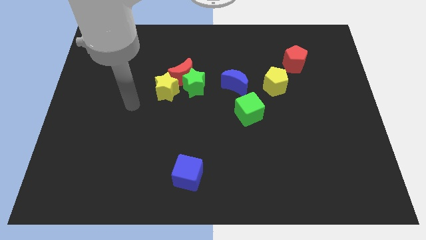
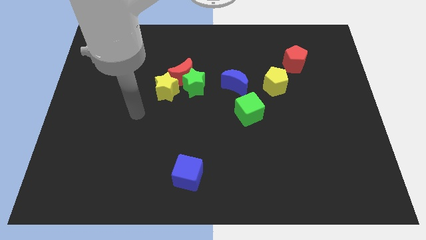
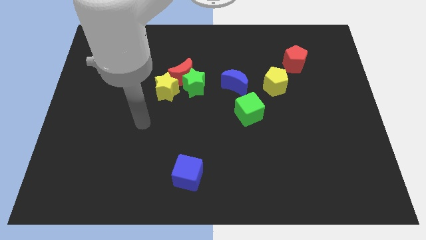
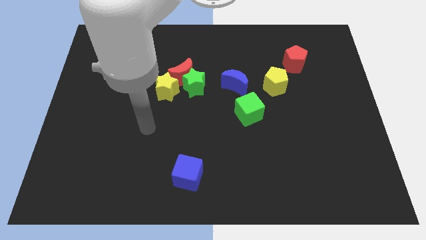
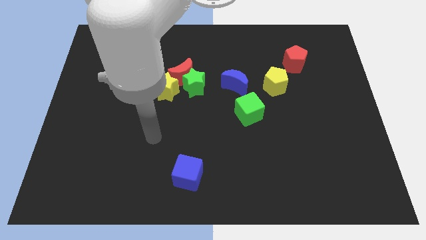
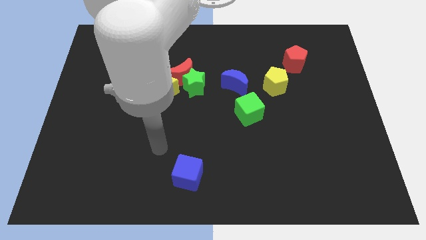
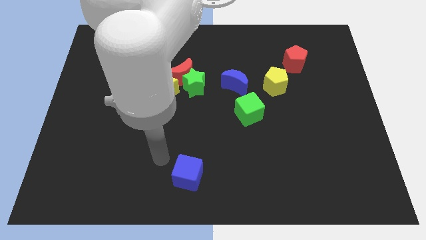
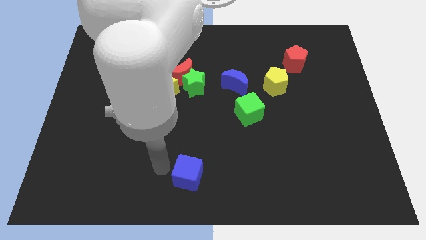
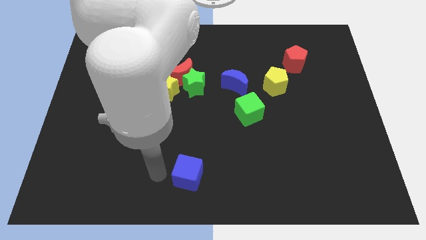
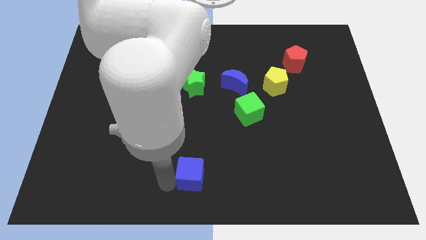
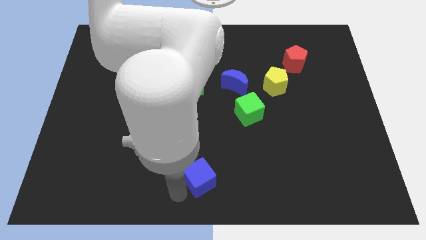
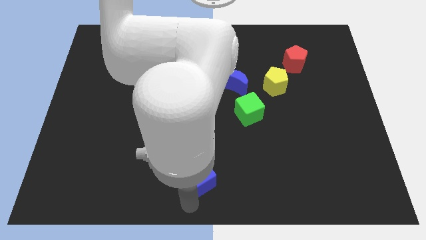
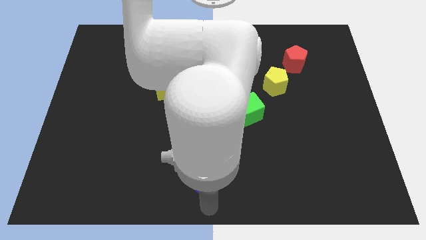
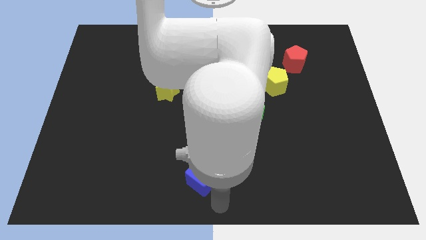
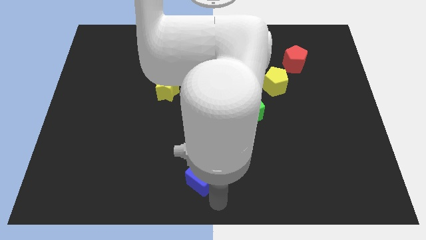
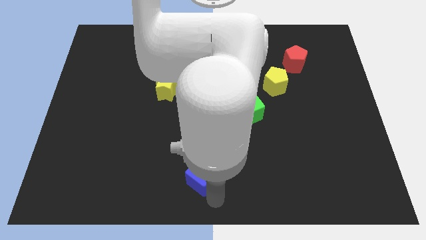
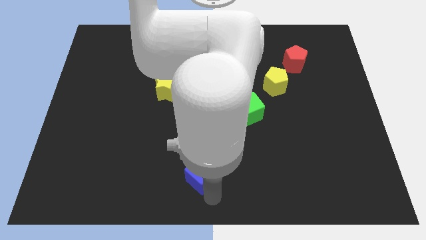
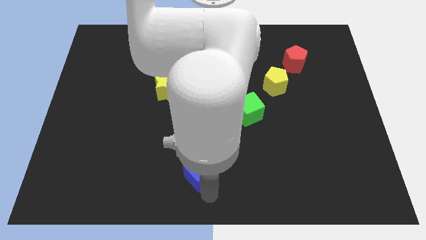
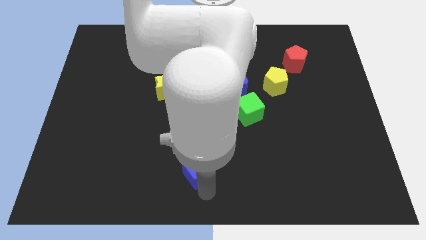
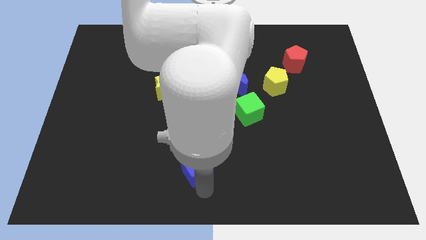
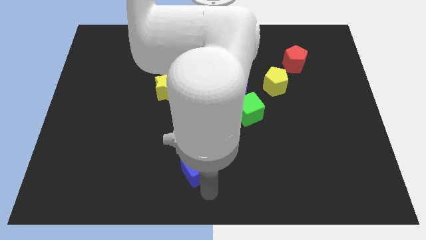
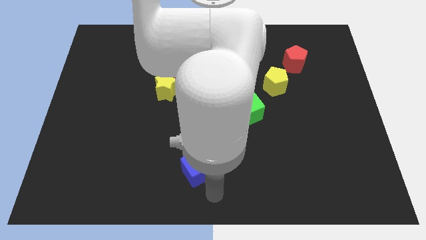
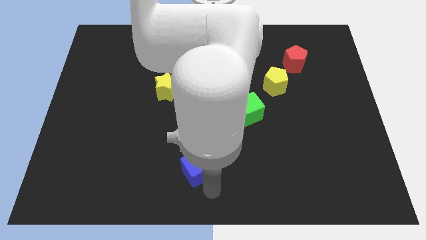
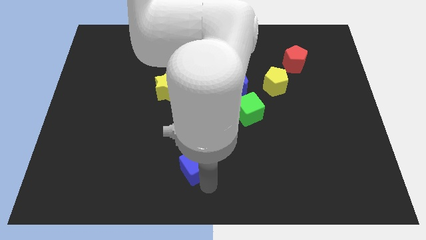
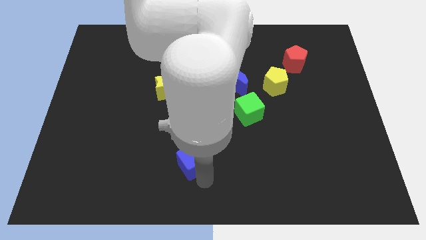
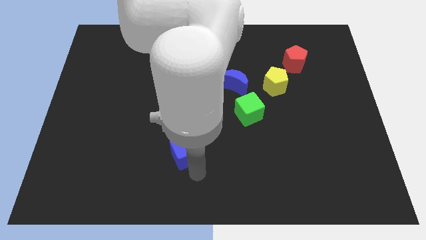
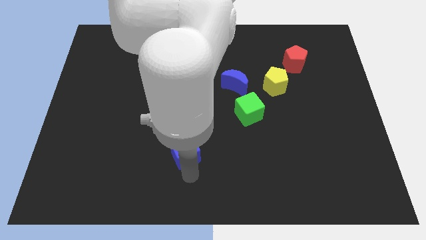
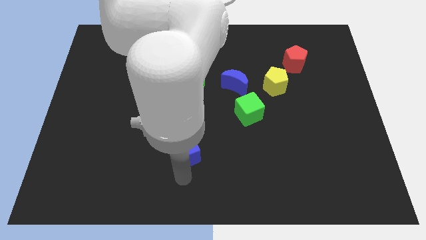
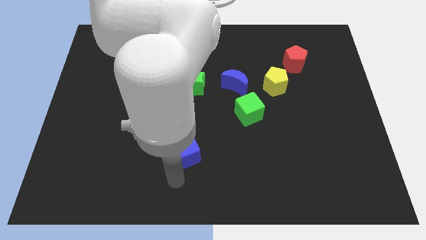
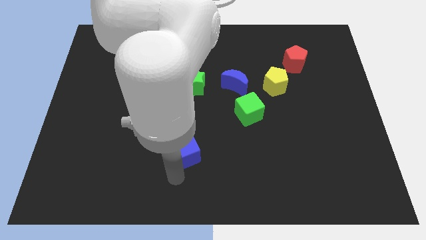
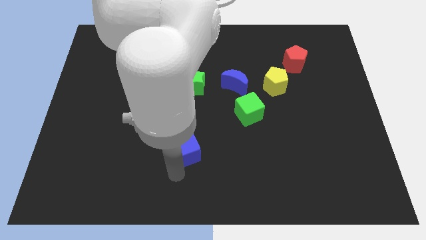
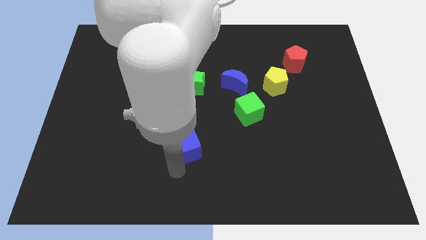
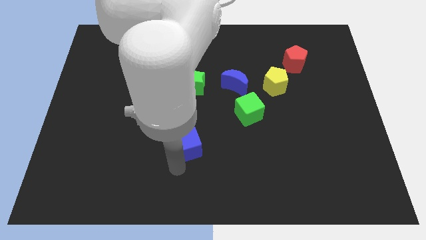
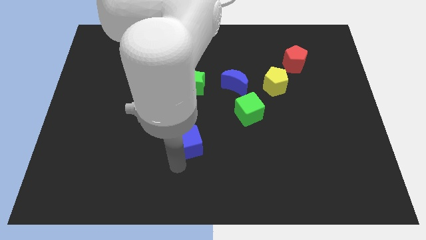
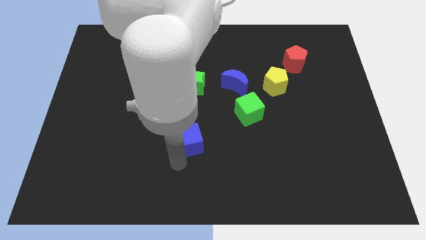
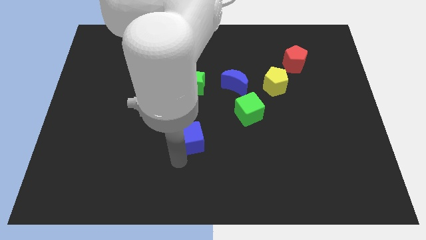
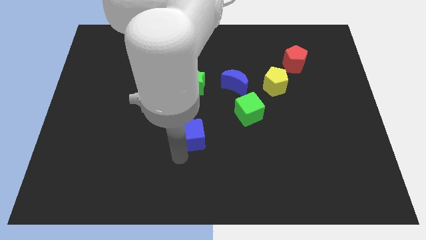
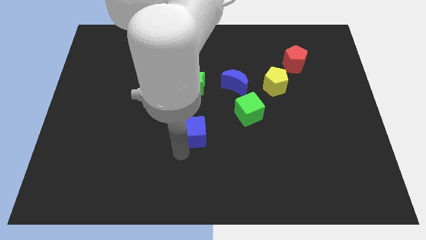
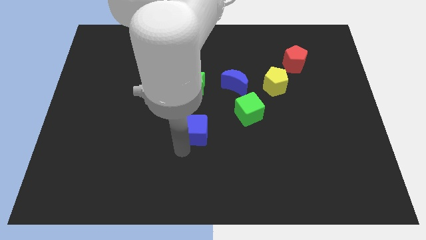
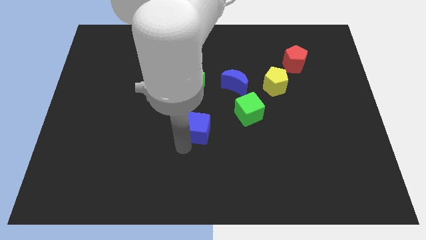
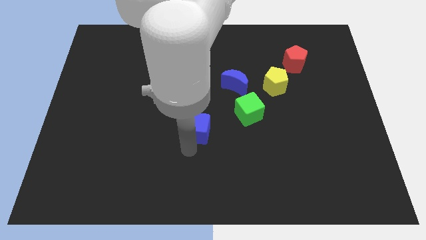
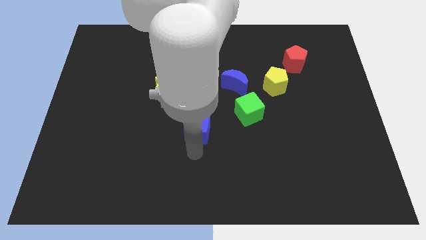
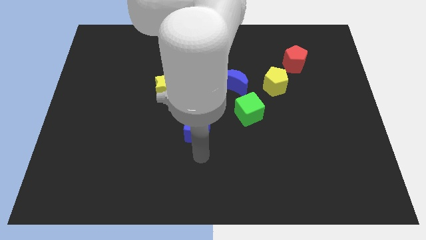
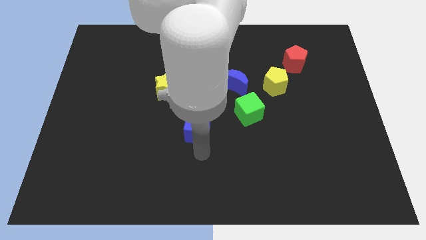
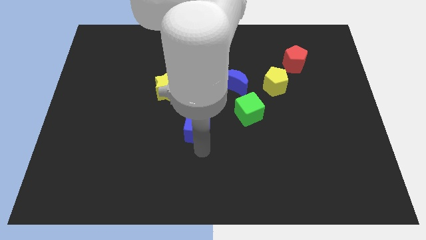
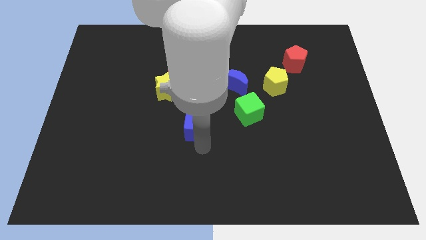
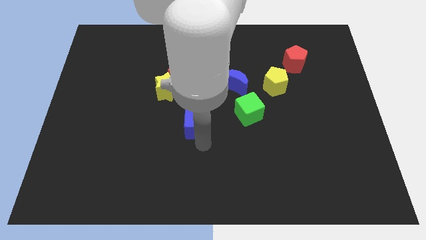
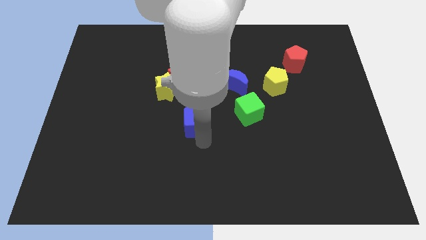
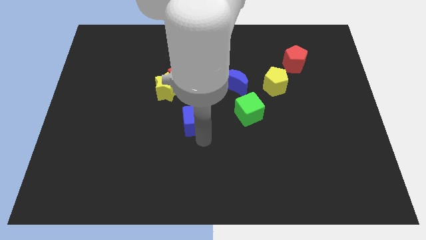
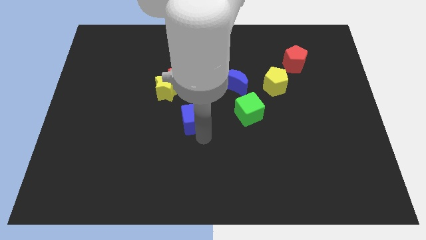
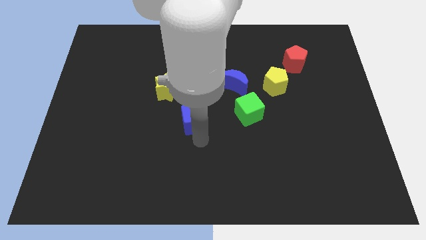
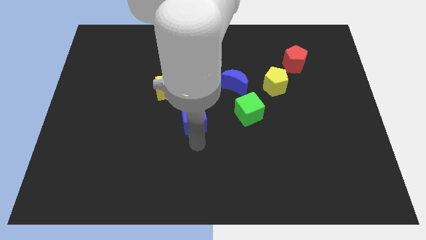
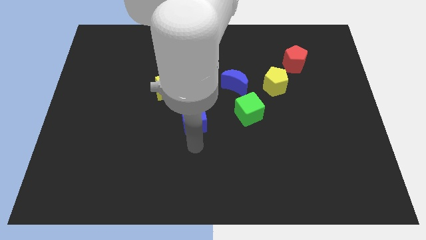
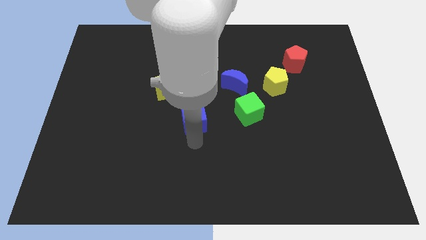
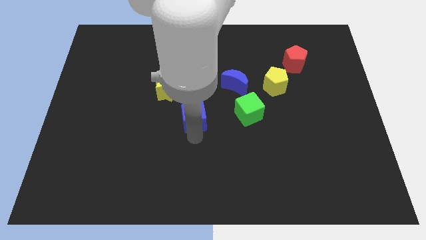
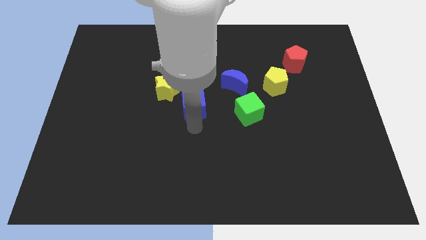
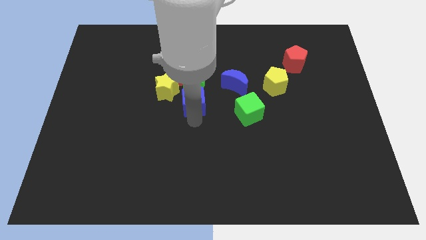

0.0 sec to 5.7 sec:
move the blue cube next to the green star

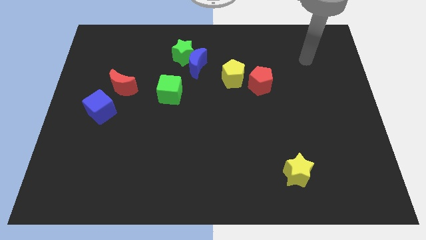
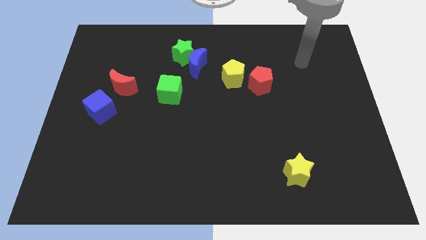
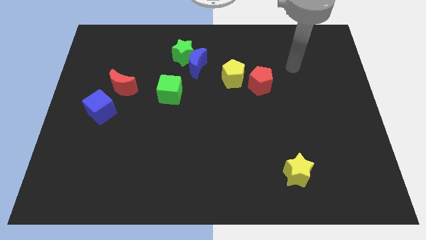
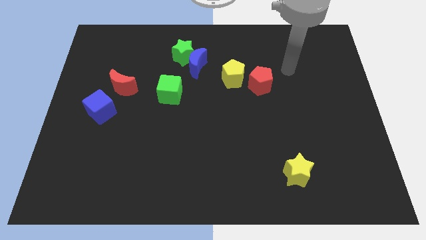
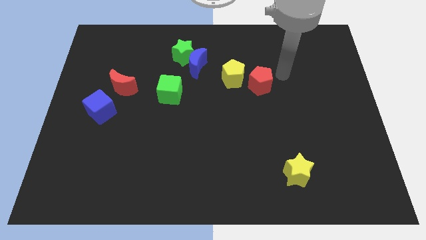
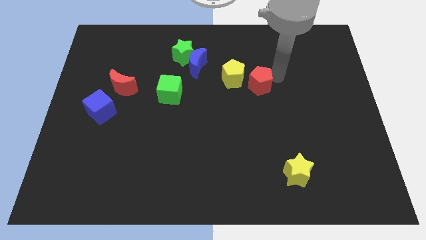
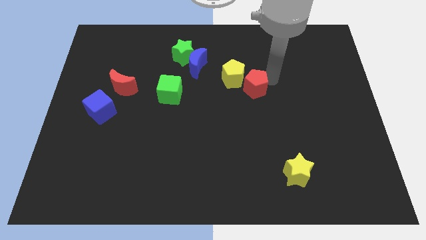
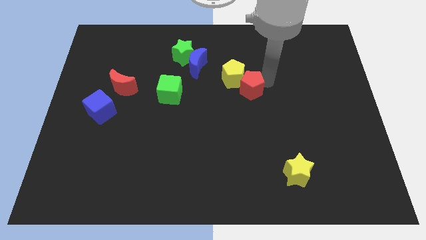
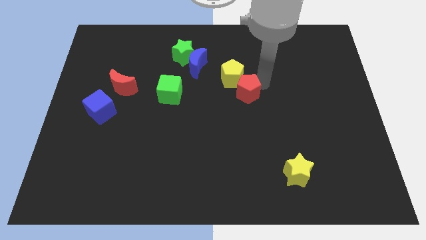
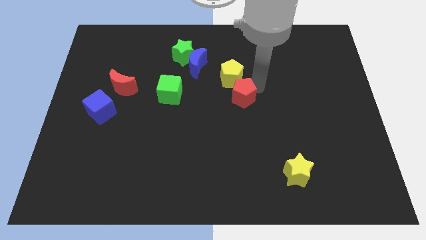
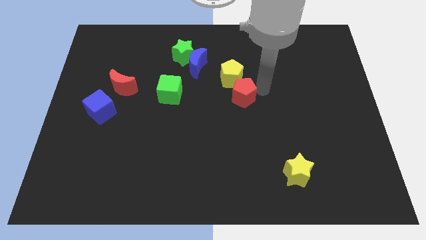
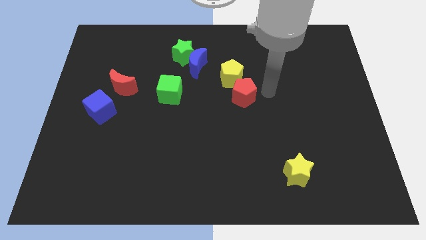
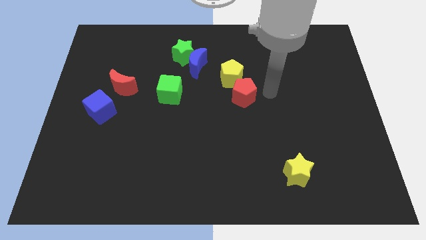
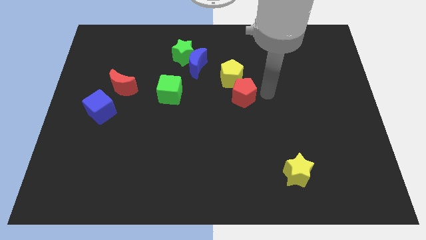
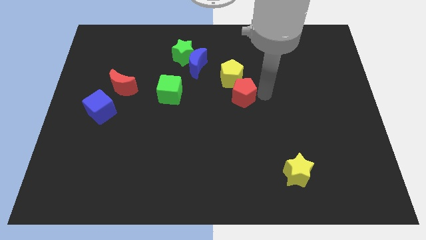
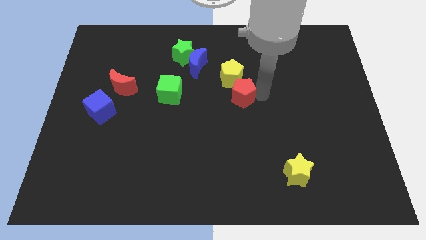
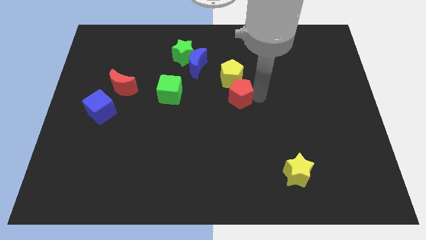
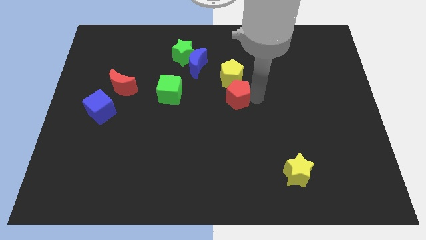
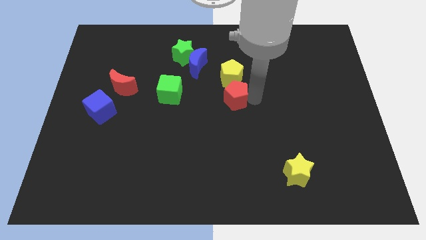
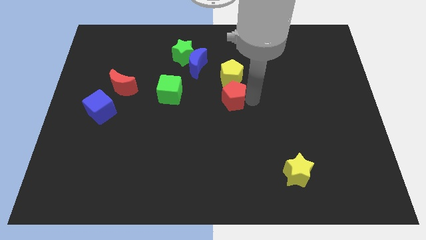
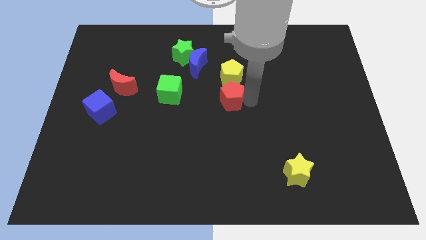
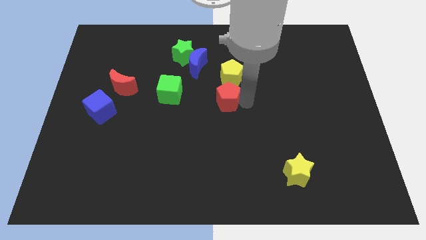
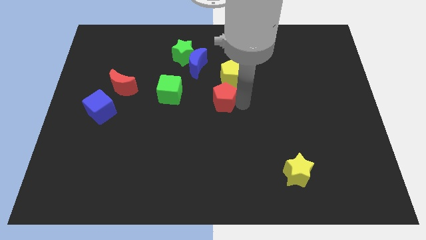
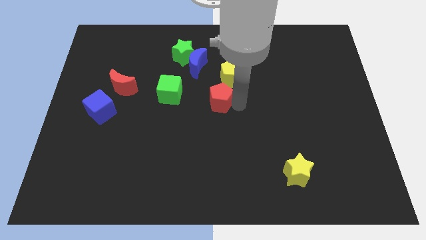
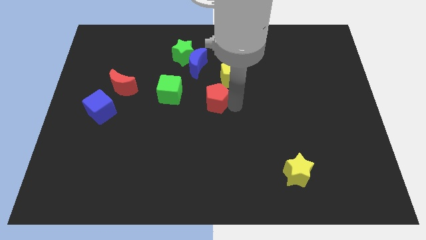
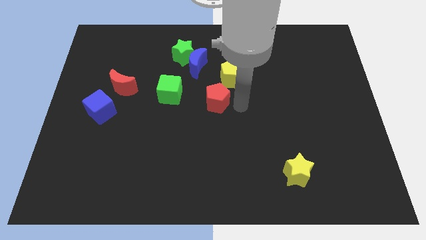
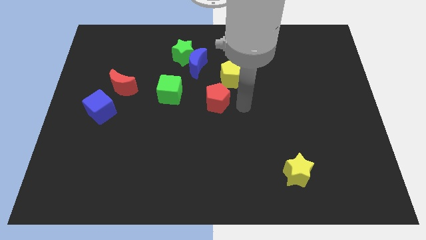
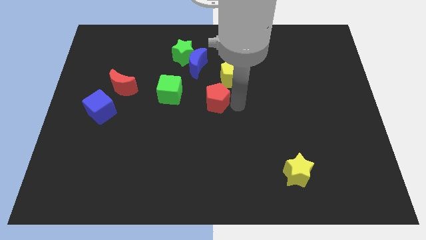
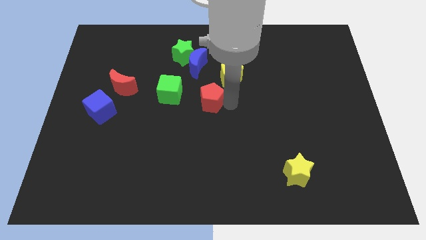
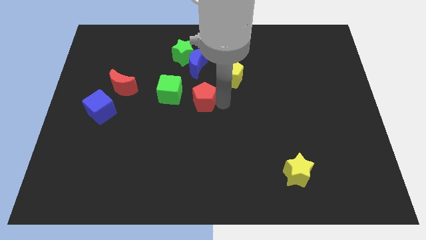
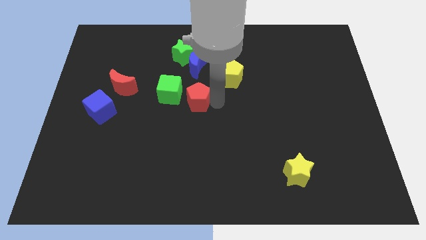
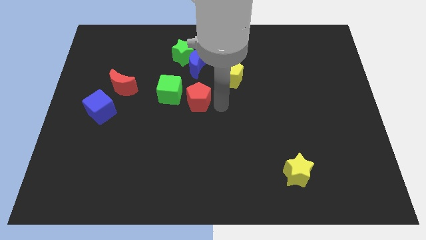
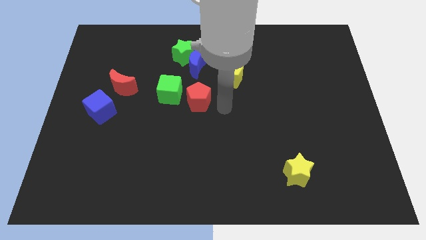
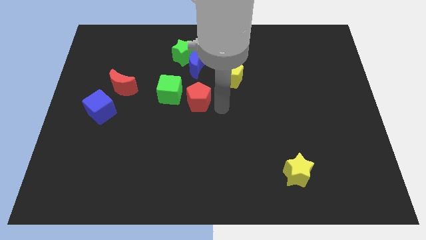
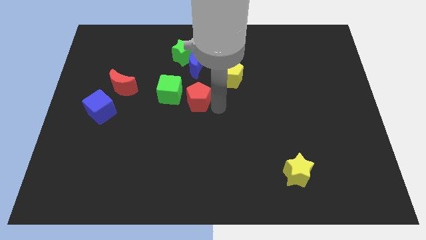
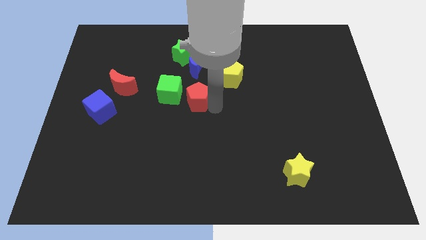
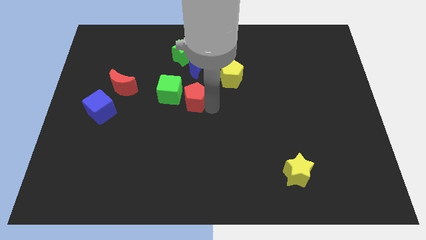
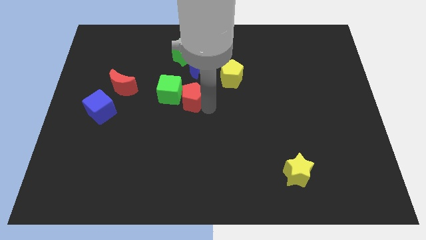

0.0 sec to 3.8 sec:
push the red pentagon towards the green cube
